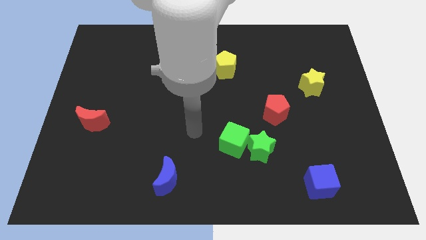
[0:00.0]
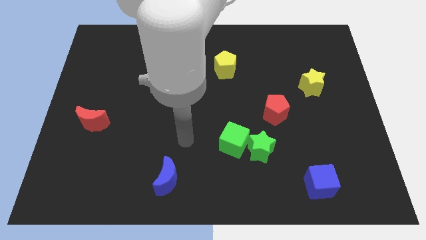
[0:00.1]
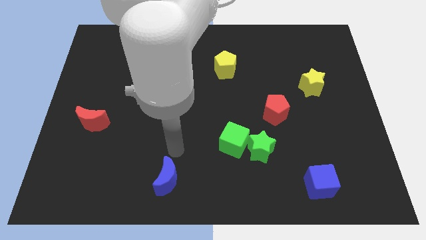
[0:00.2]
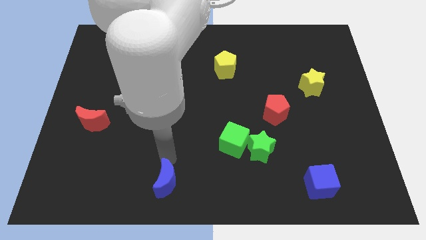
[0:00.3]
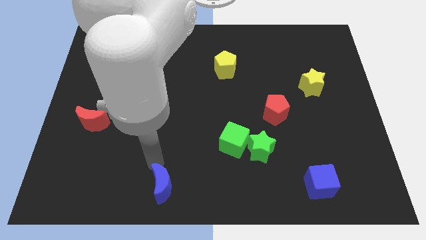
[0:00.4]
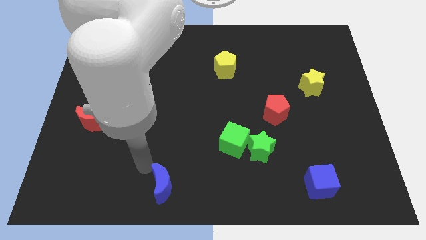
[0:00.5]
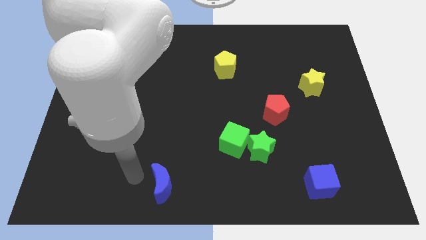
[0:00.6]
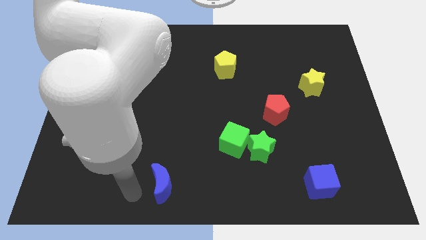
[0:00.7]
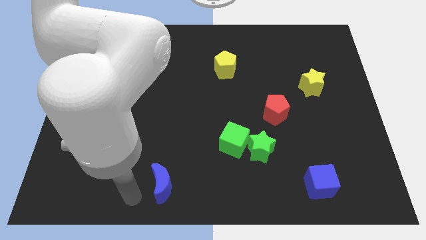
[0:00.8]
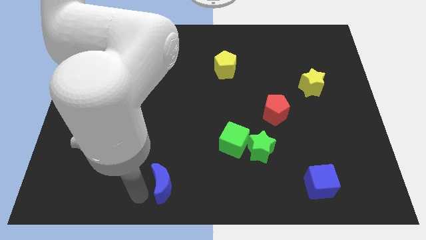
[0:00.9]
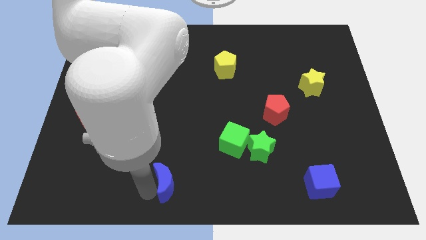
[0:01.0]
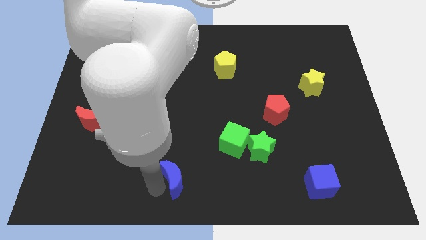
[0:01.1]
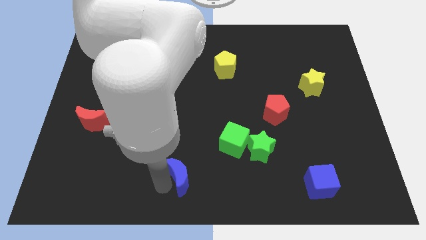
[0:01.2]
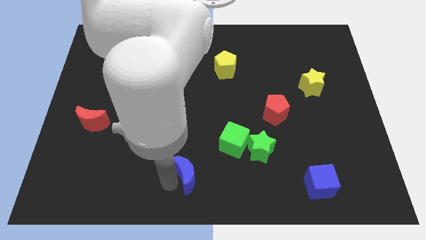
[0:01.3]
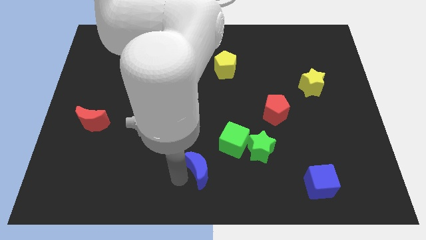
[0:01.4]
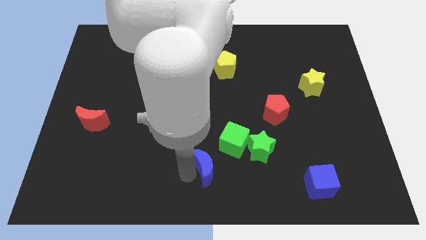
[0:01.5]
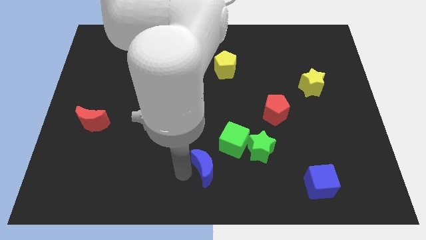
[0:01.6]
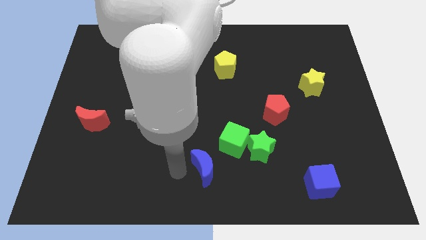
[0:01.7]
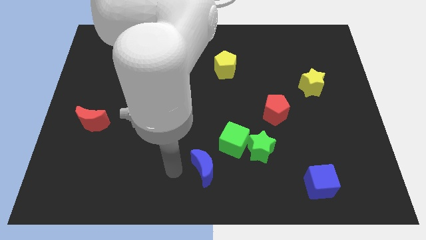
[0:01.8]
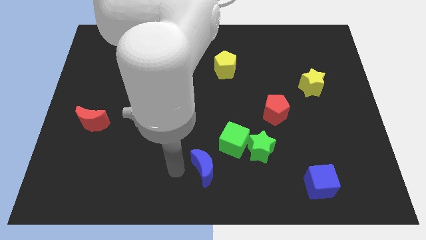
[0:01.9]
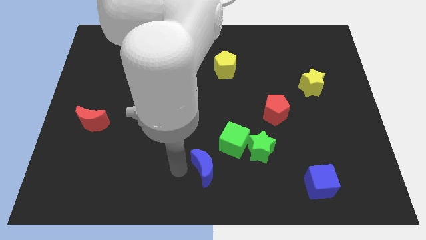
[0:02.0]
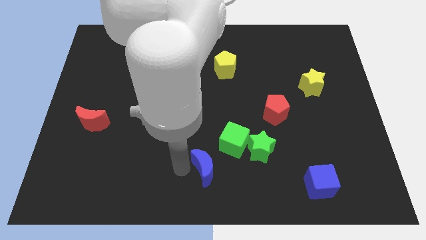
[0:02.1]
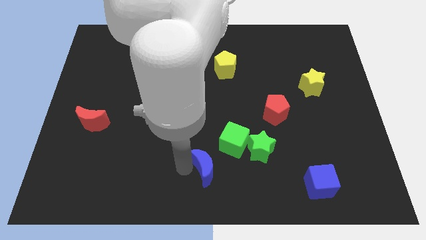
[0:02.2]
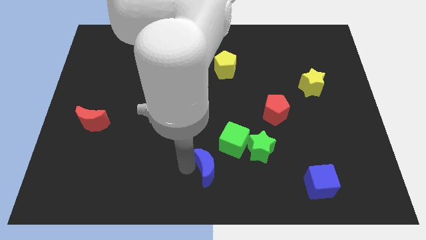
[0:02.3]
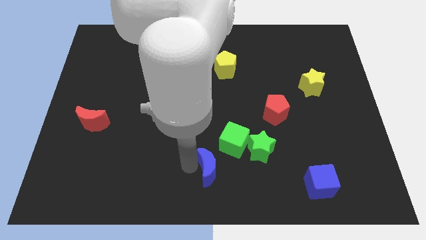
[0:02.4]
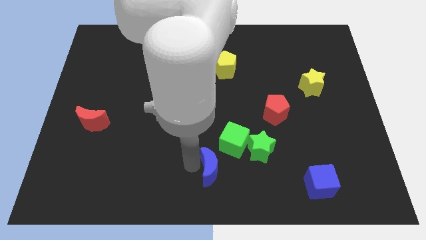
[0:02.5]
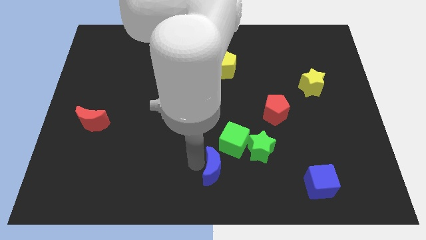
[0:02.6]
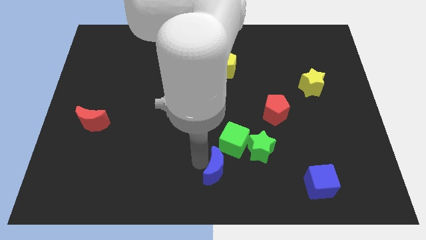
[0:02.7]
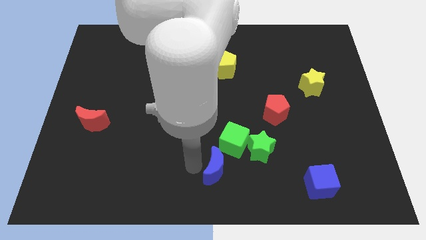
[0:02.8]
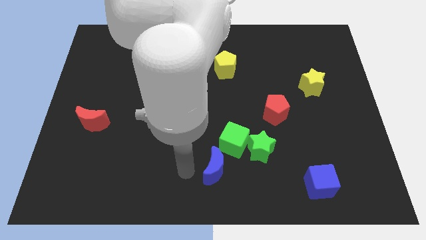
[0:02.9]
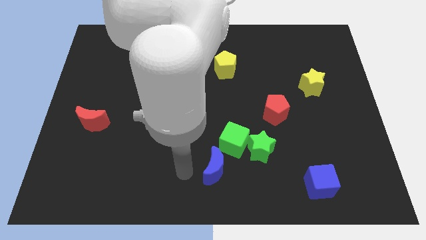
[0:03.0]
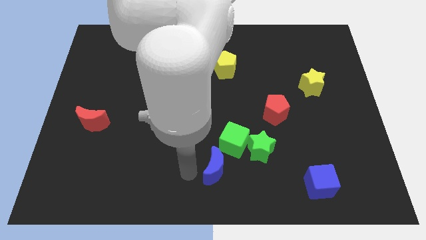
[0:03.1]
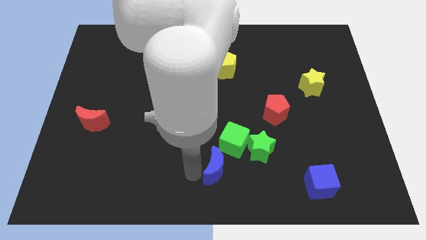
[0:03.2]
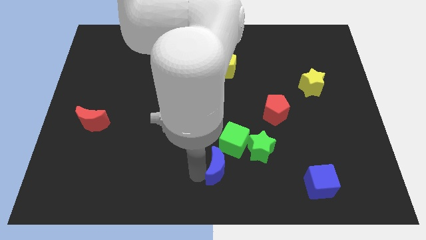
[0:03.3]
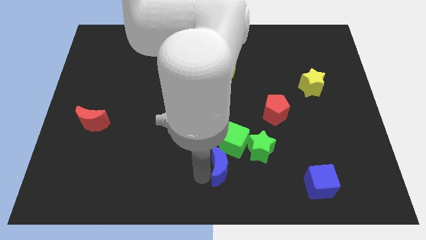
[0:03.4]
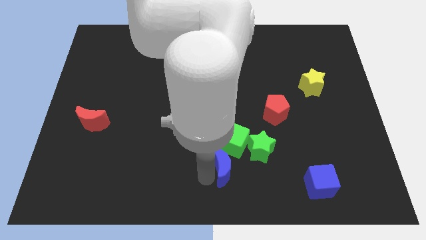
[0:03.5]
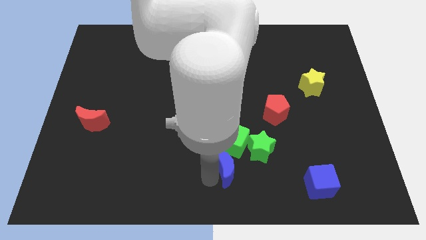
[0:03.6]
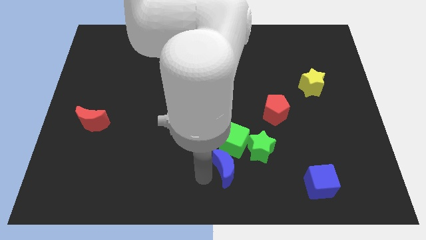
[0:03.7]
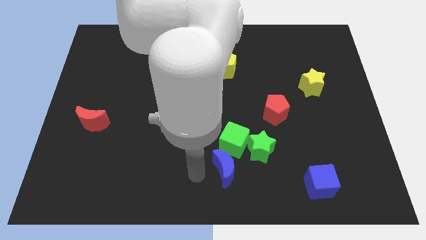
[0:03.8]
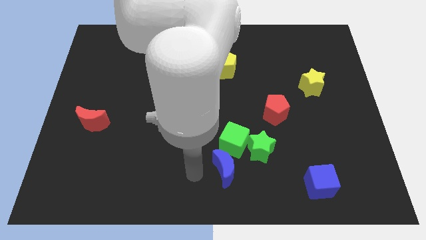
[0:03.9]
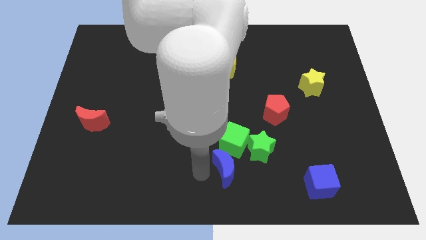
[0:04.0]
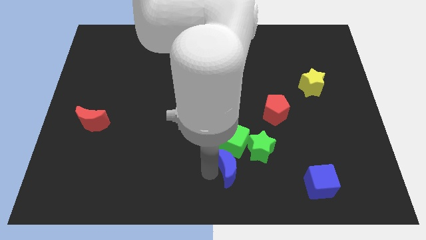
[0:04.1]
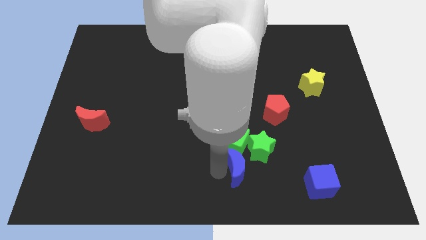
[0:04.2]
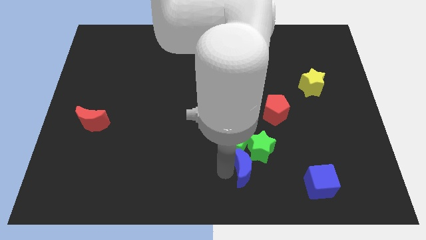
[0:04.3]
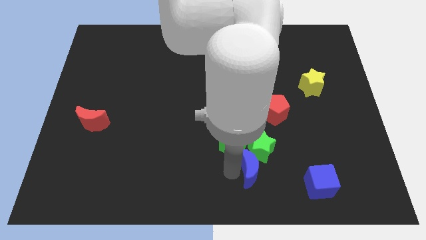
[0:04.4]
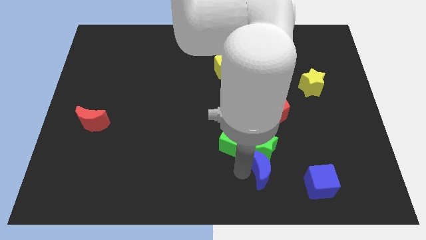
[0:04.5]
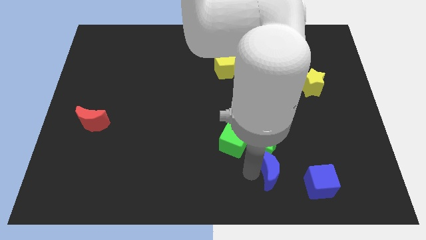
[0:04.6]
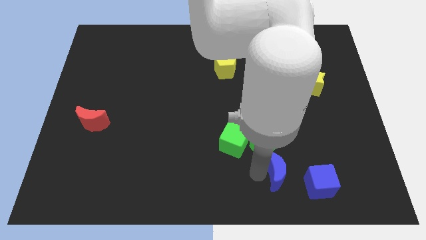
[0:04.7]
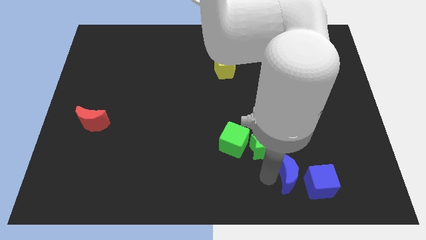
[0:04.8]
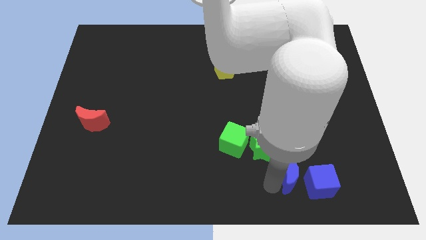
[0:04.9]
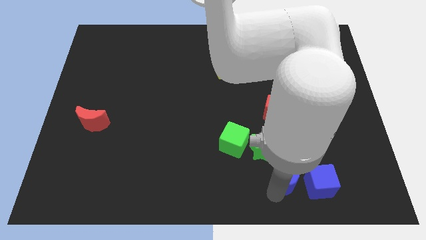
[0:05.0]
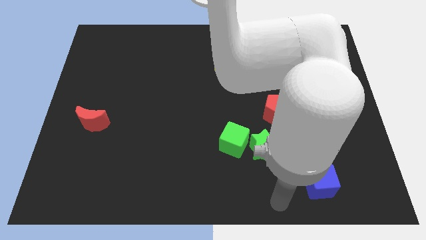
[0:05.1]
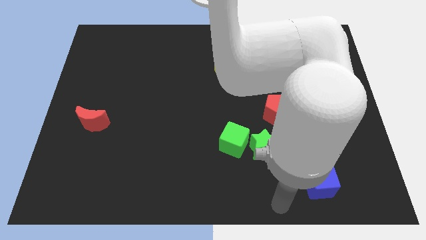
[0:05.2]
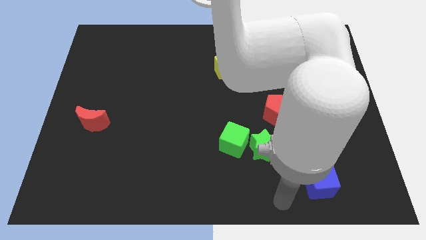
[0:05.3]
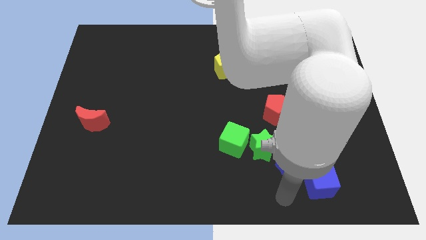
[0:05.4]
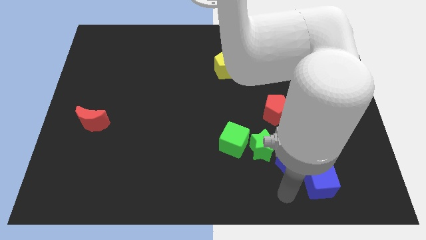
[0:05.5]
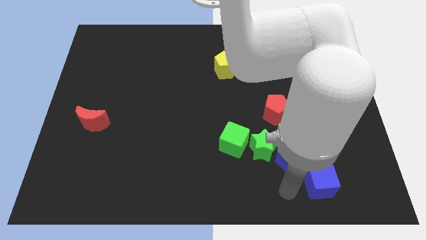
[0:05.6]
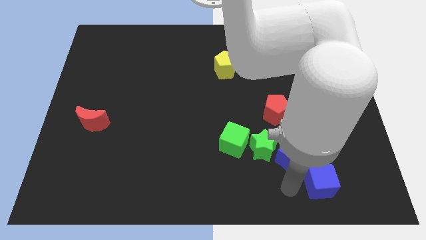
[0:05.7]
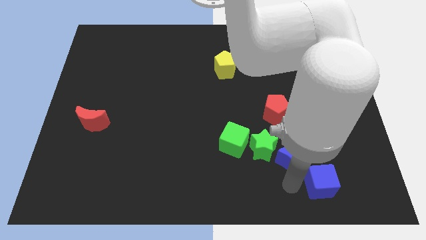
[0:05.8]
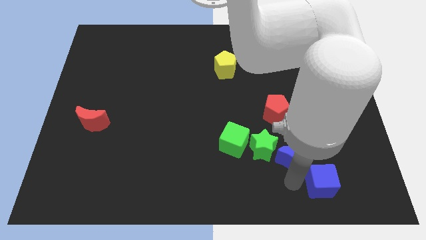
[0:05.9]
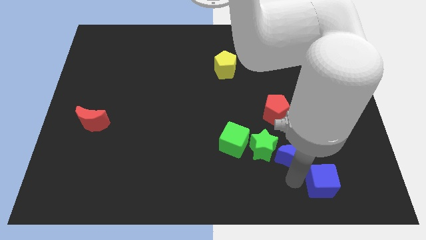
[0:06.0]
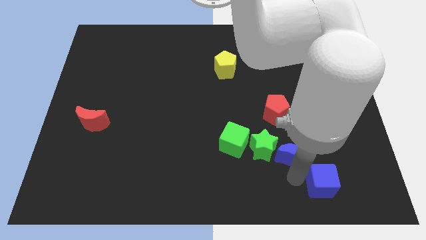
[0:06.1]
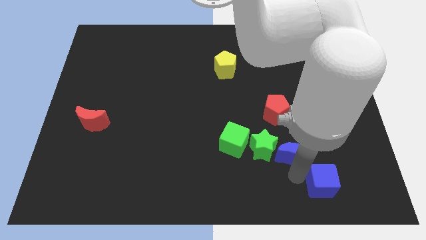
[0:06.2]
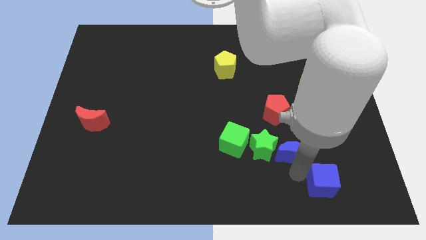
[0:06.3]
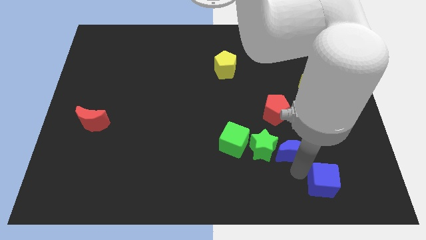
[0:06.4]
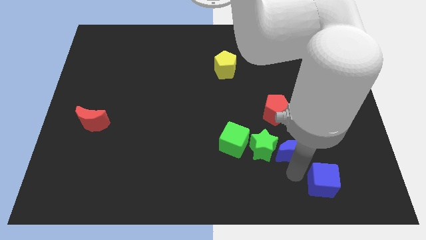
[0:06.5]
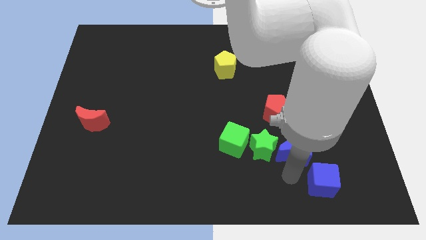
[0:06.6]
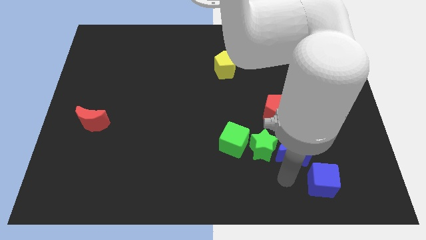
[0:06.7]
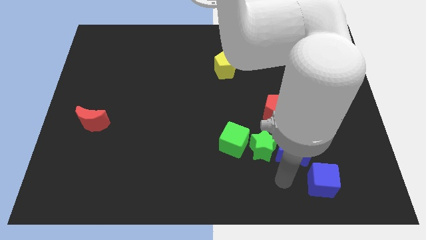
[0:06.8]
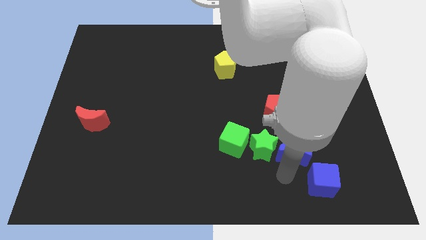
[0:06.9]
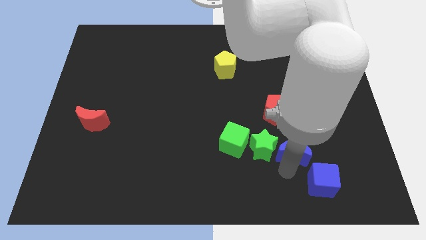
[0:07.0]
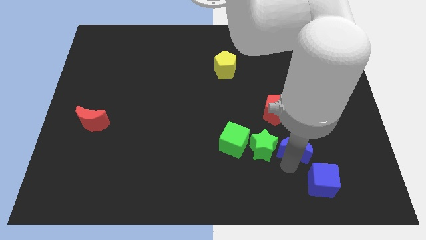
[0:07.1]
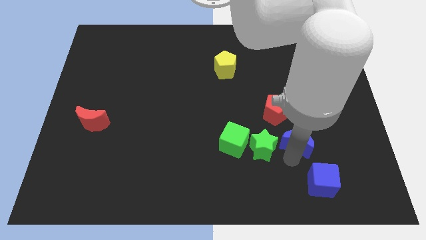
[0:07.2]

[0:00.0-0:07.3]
push the blue moon to the bottom right side of the red pentagon
